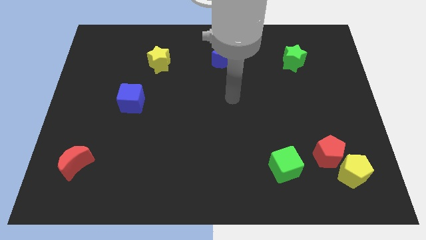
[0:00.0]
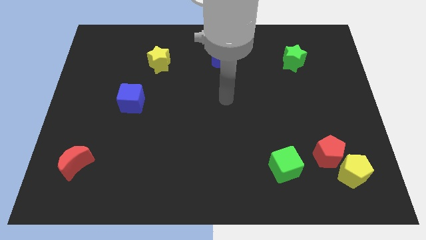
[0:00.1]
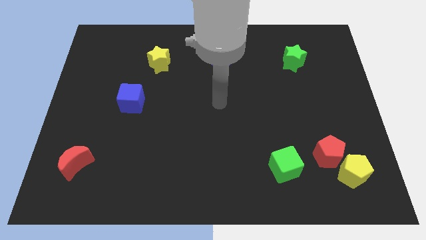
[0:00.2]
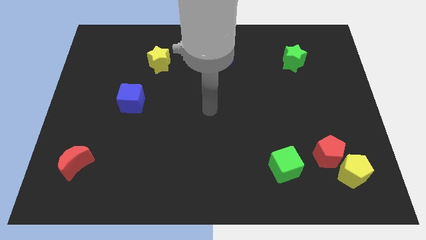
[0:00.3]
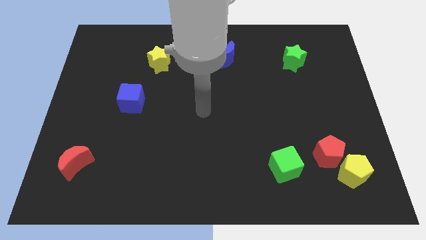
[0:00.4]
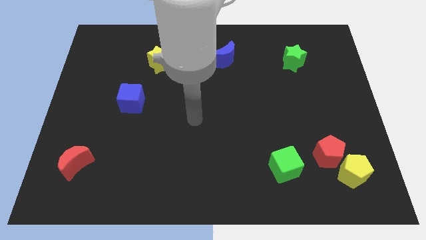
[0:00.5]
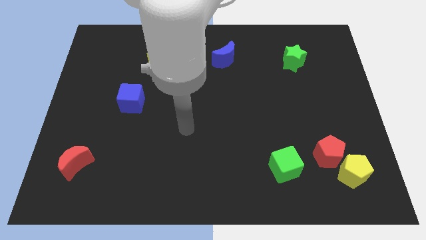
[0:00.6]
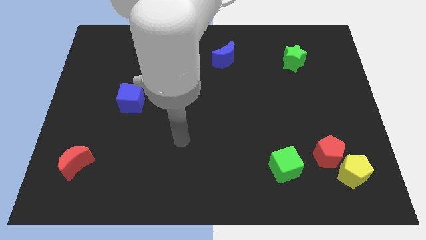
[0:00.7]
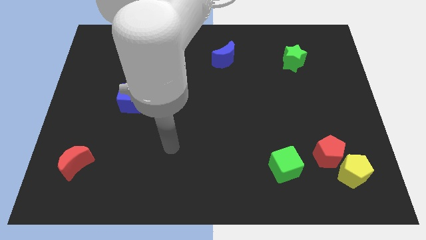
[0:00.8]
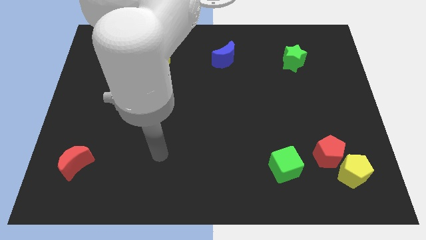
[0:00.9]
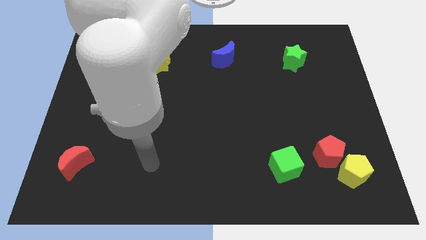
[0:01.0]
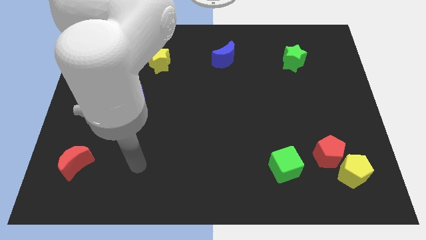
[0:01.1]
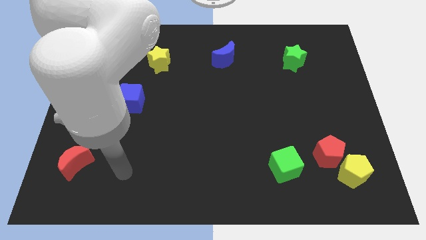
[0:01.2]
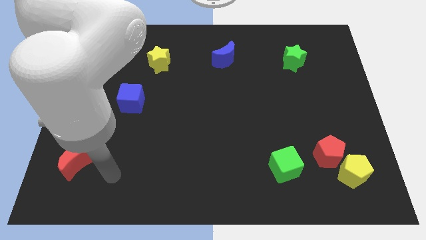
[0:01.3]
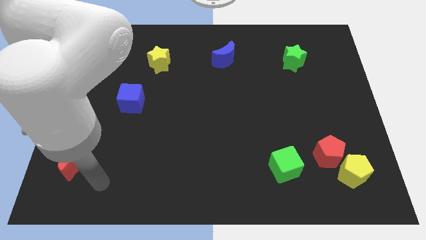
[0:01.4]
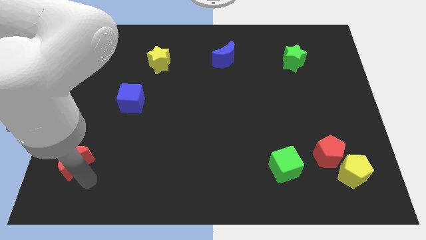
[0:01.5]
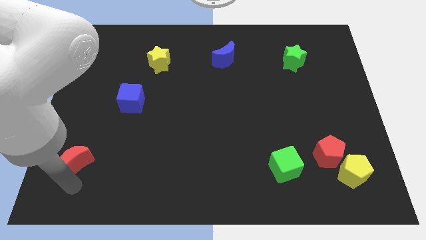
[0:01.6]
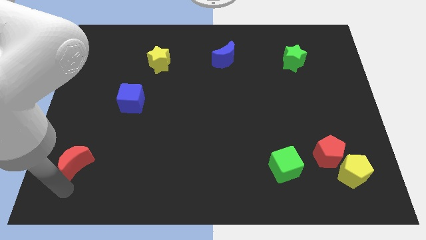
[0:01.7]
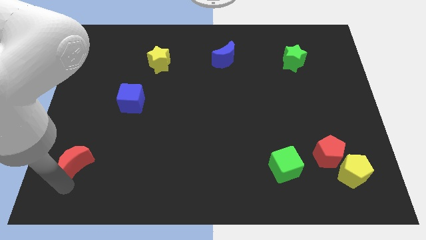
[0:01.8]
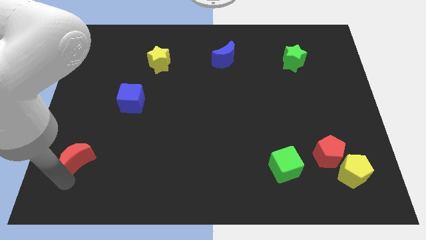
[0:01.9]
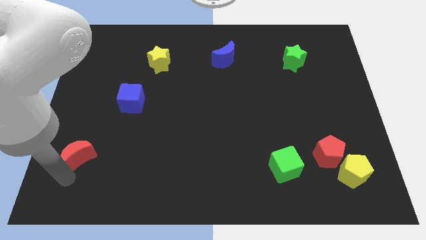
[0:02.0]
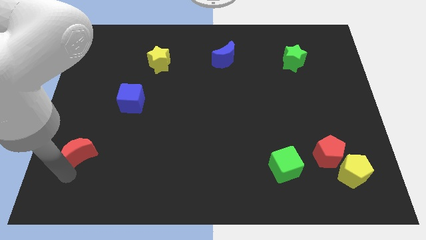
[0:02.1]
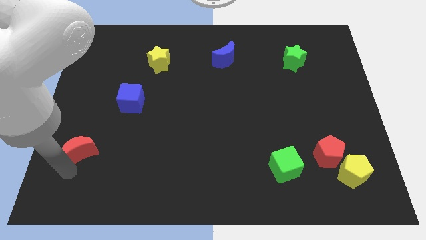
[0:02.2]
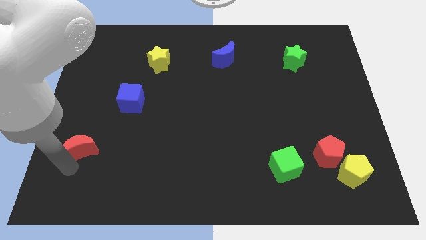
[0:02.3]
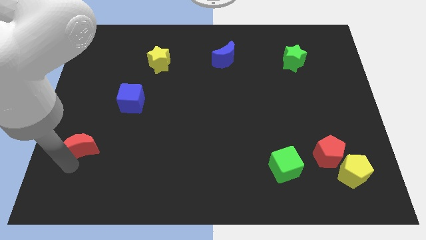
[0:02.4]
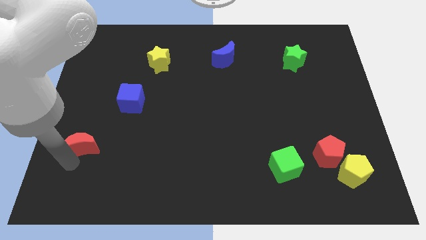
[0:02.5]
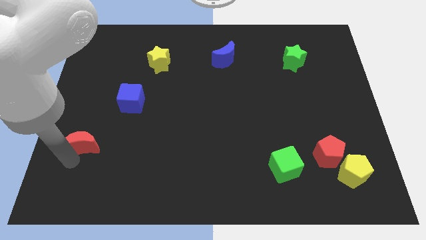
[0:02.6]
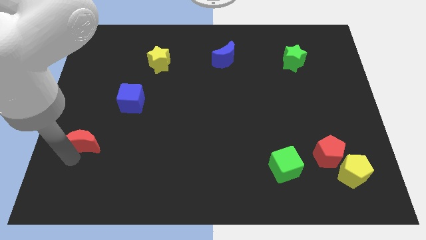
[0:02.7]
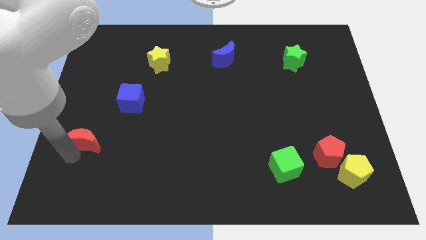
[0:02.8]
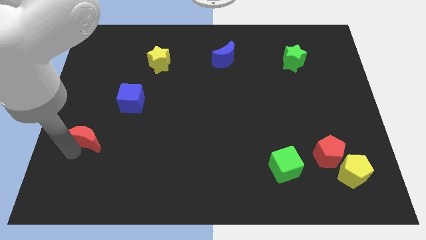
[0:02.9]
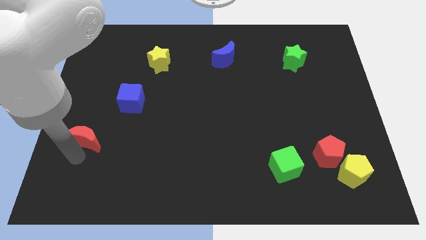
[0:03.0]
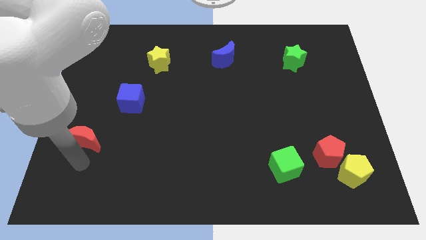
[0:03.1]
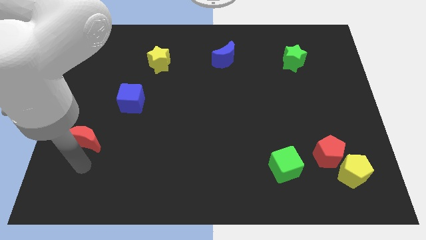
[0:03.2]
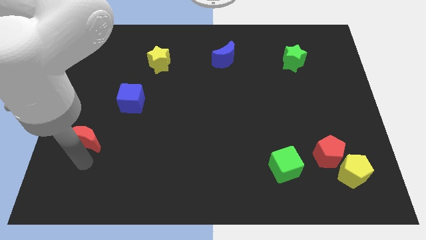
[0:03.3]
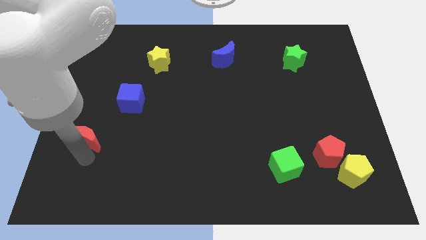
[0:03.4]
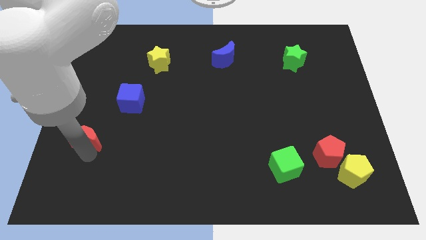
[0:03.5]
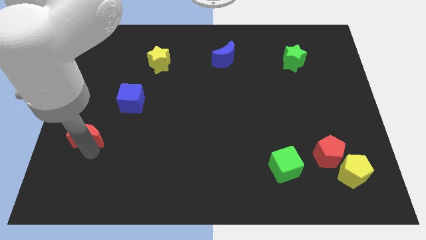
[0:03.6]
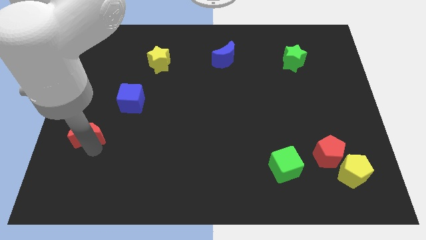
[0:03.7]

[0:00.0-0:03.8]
push the red moon up somewhat

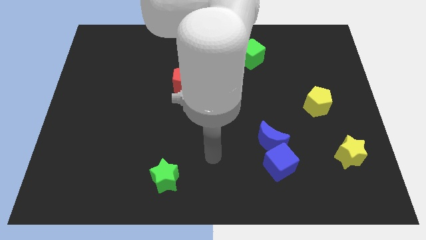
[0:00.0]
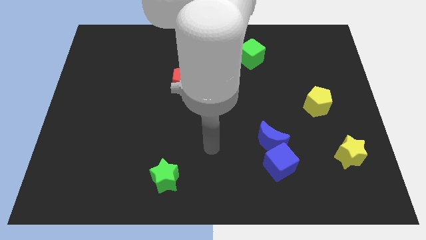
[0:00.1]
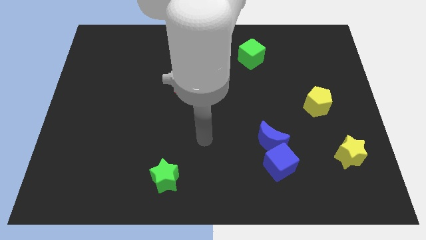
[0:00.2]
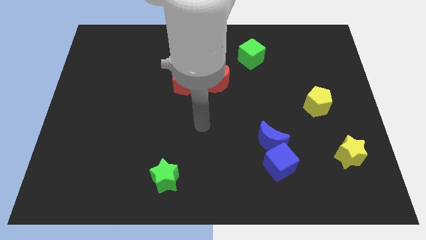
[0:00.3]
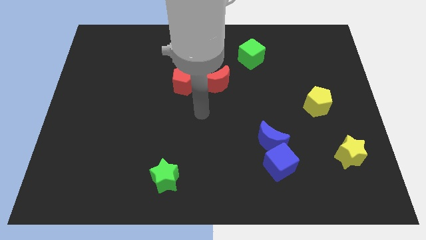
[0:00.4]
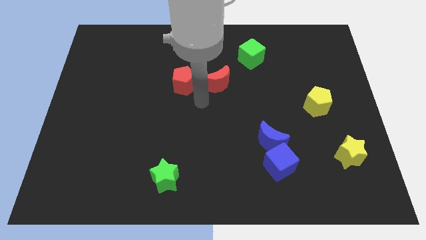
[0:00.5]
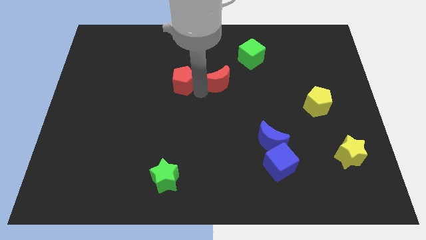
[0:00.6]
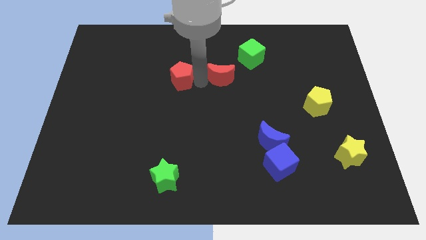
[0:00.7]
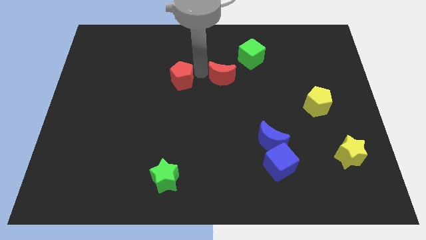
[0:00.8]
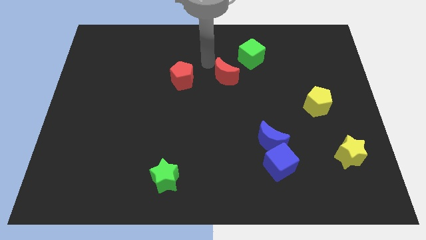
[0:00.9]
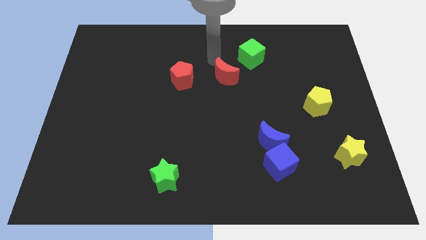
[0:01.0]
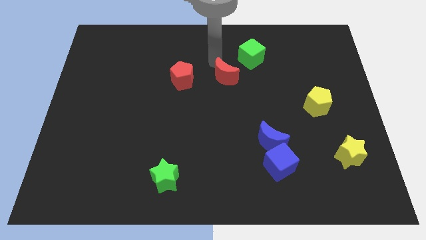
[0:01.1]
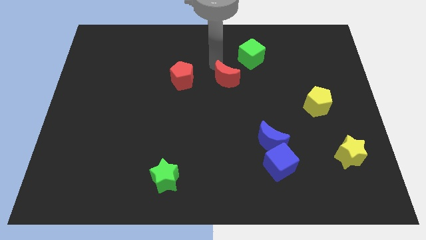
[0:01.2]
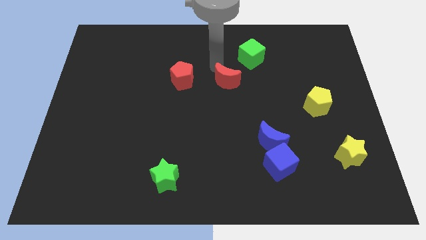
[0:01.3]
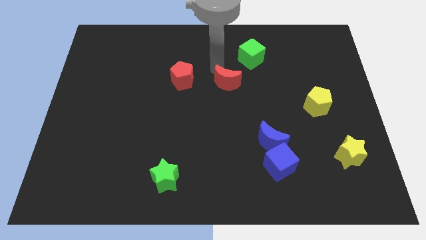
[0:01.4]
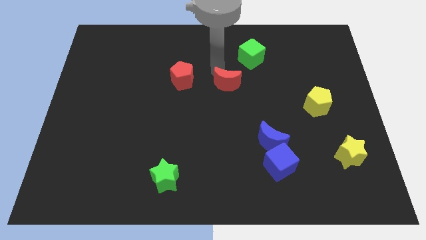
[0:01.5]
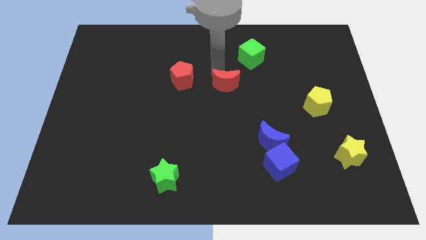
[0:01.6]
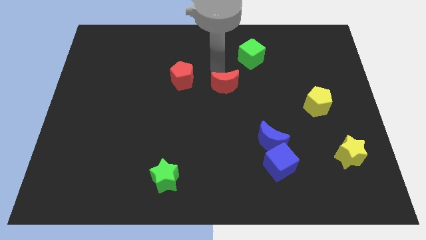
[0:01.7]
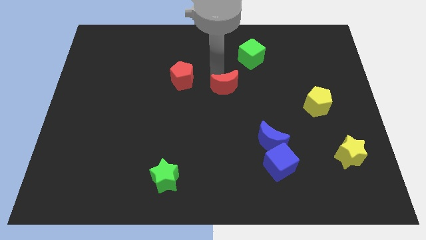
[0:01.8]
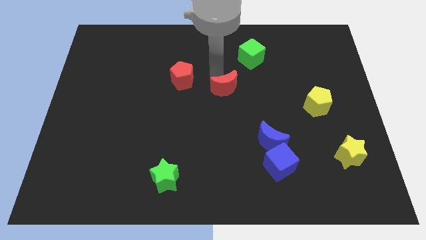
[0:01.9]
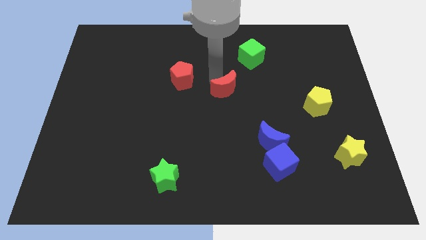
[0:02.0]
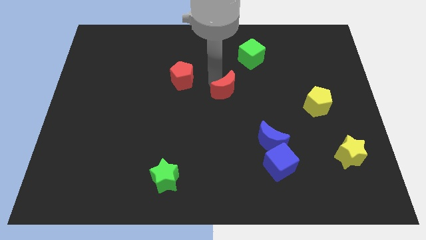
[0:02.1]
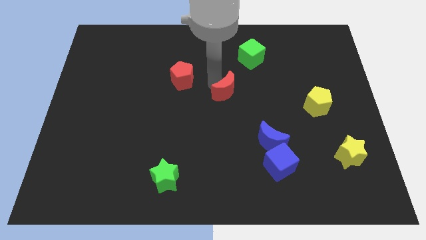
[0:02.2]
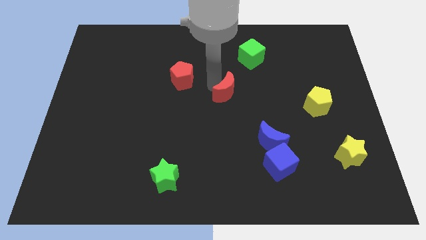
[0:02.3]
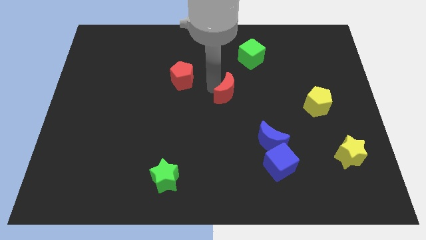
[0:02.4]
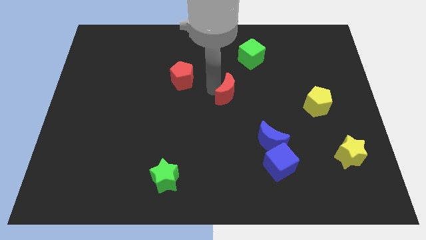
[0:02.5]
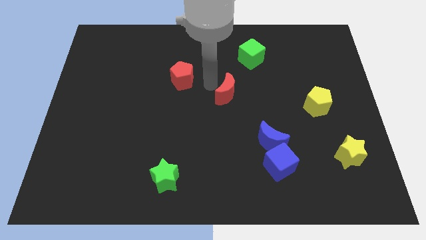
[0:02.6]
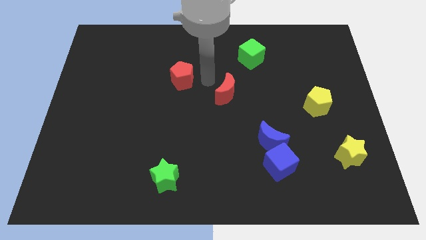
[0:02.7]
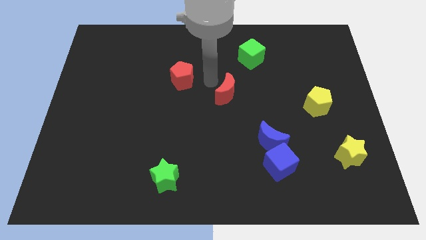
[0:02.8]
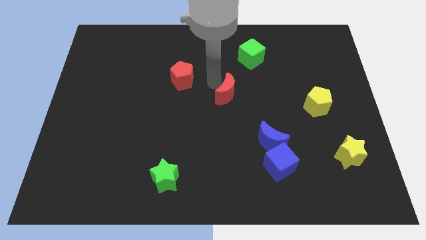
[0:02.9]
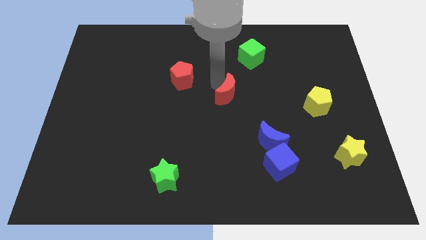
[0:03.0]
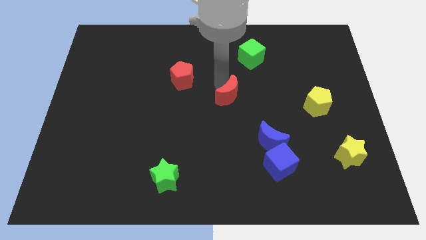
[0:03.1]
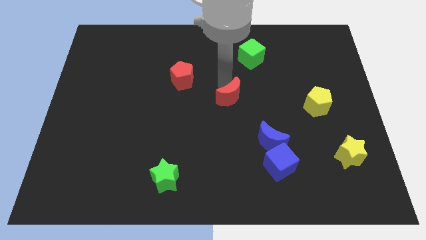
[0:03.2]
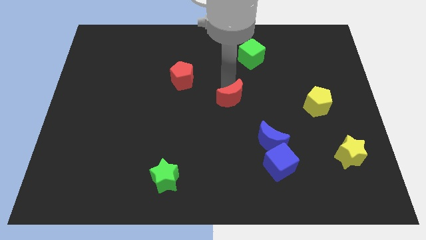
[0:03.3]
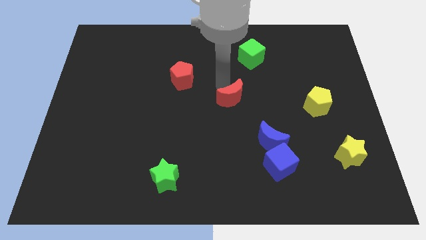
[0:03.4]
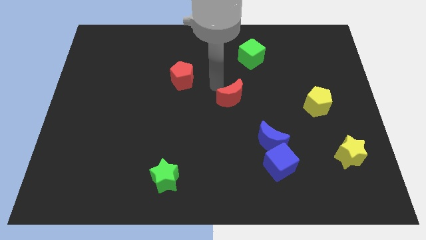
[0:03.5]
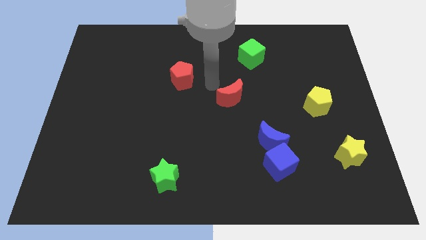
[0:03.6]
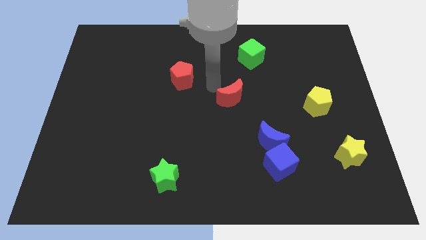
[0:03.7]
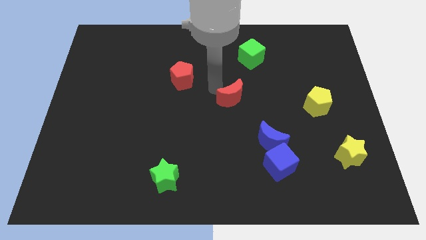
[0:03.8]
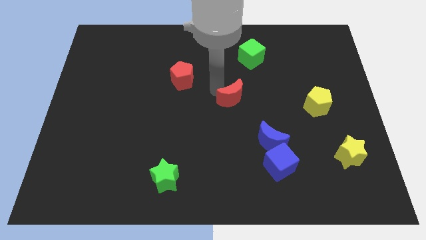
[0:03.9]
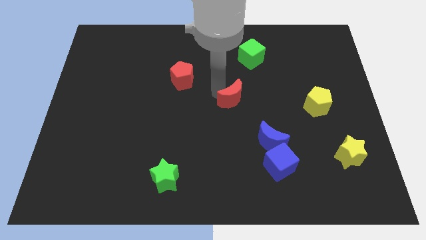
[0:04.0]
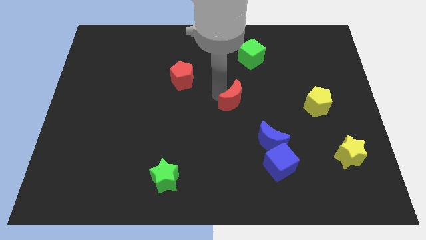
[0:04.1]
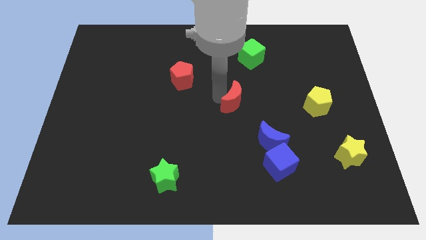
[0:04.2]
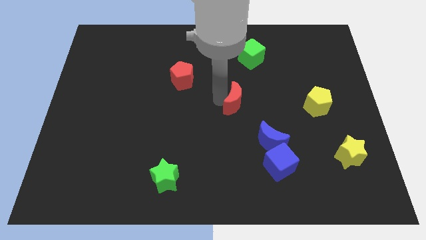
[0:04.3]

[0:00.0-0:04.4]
slightly move the red moon diagonally down and right

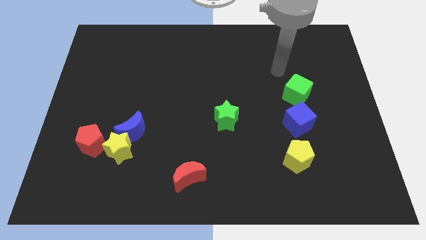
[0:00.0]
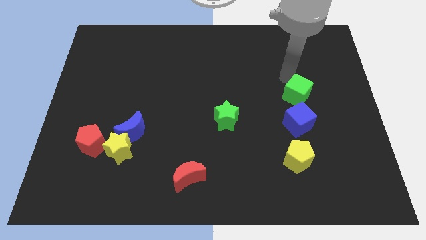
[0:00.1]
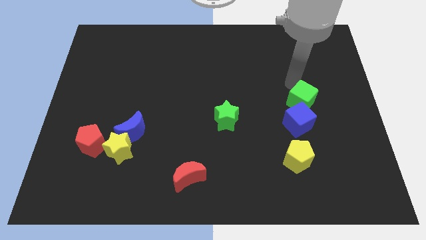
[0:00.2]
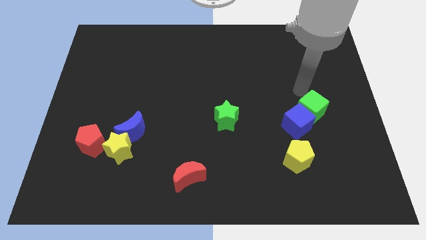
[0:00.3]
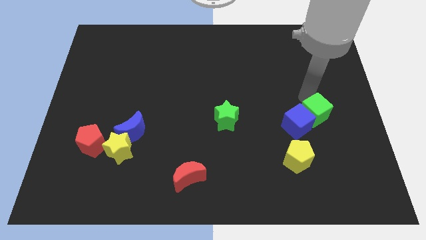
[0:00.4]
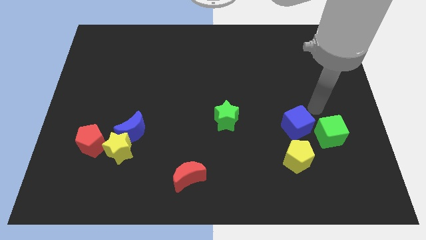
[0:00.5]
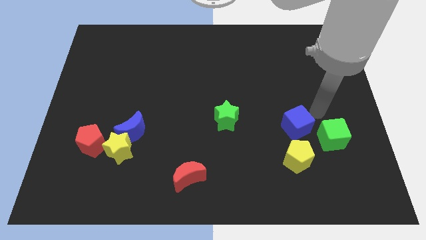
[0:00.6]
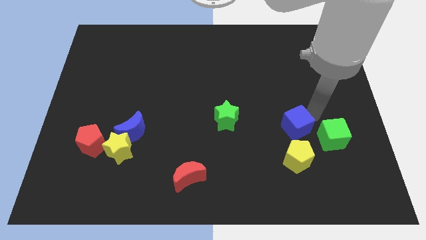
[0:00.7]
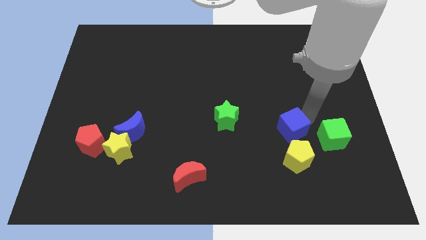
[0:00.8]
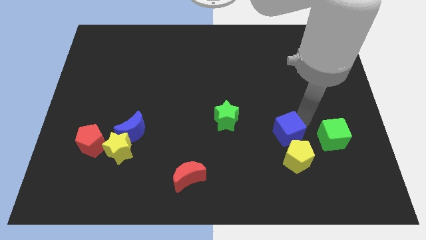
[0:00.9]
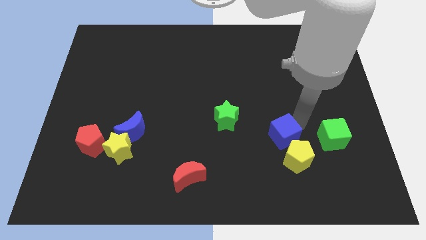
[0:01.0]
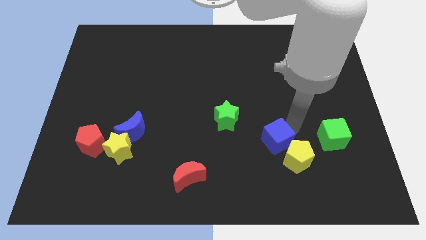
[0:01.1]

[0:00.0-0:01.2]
push the blue cube a little bit diagonally down and to the left
